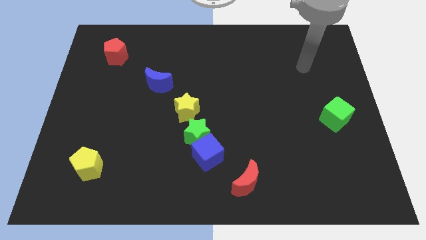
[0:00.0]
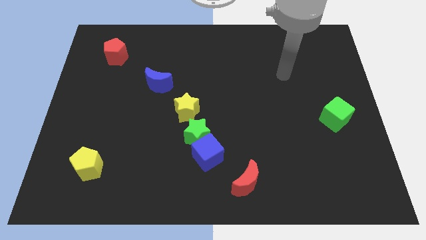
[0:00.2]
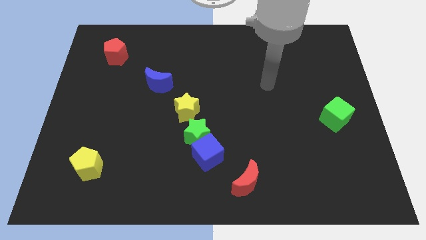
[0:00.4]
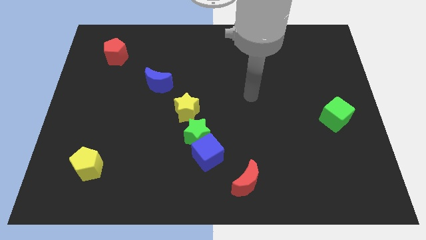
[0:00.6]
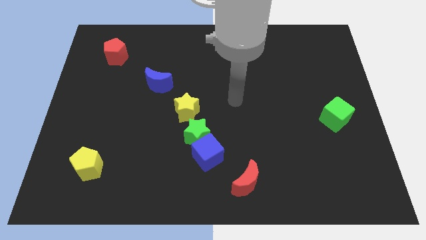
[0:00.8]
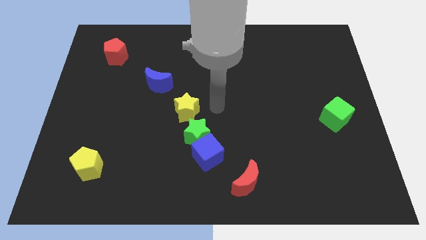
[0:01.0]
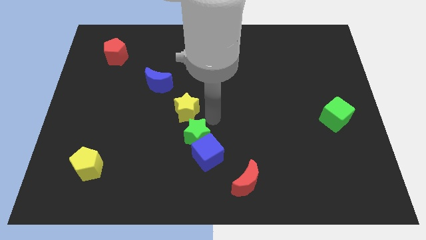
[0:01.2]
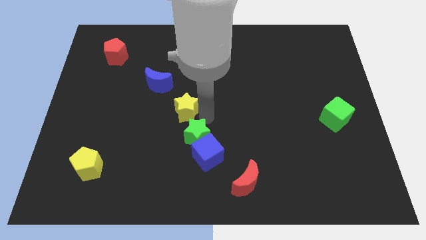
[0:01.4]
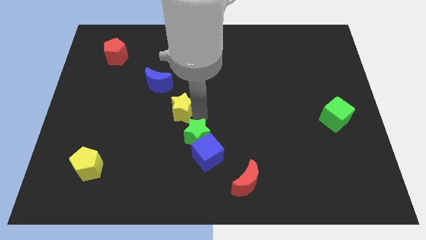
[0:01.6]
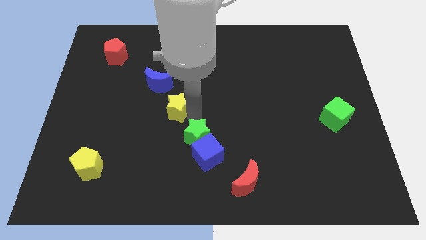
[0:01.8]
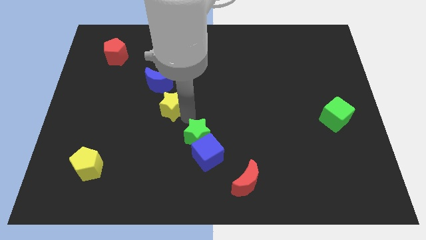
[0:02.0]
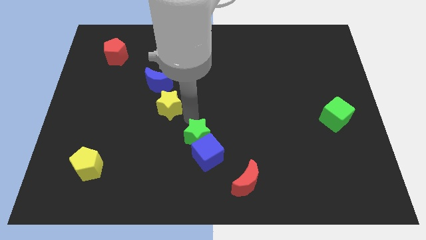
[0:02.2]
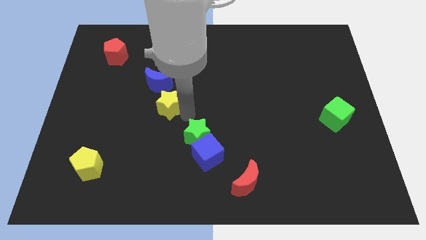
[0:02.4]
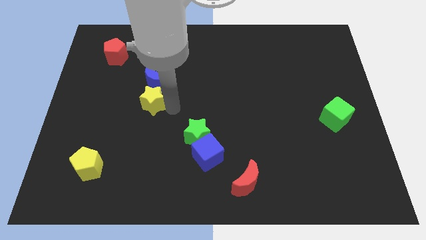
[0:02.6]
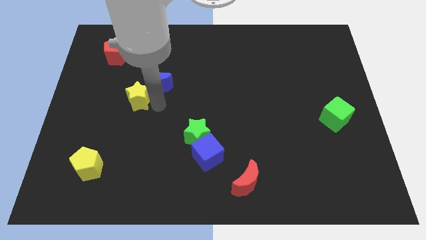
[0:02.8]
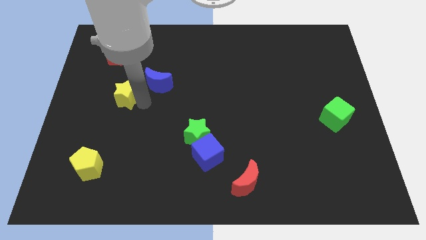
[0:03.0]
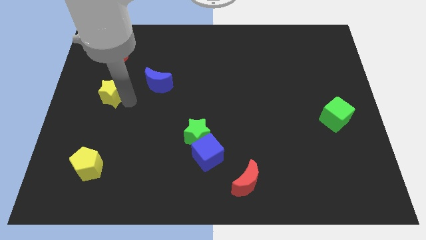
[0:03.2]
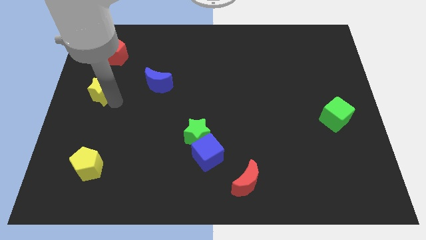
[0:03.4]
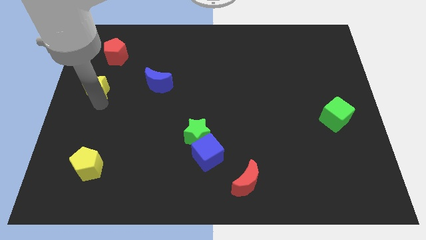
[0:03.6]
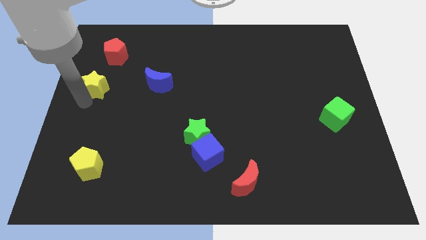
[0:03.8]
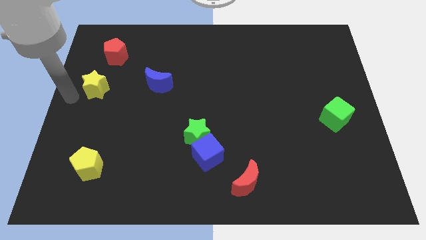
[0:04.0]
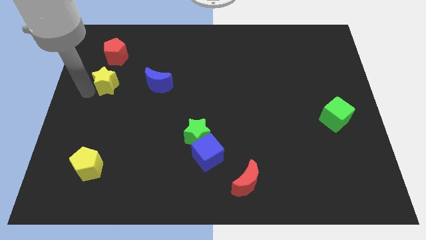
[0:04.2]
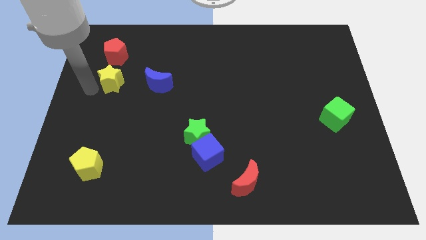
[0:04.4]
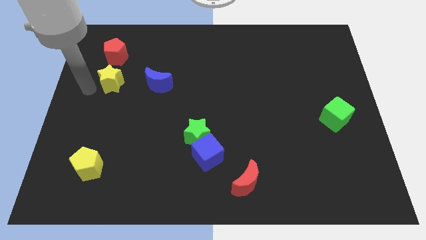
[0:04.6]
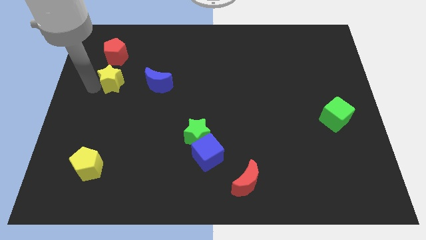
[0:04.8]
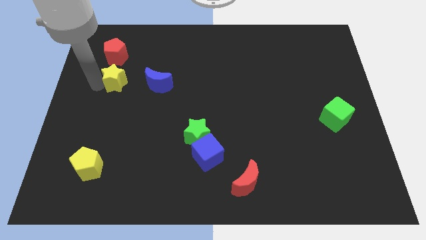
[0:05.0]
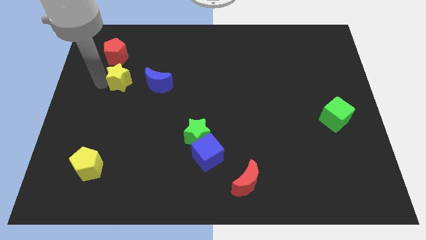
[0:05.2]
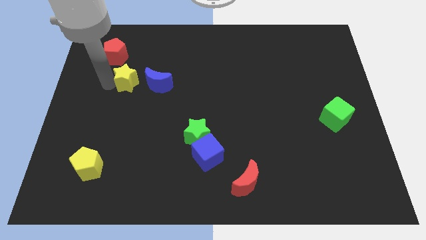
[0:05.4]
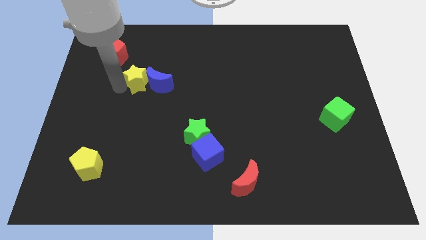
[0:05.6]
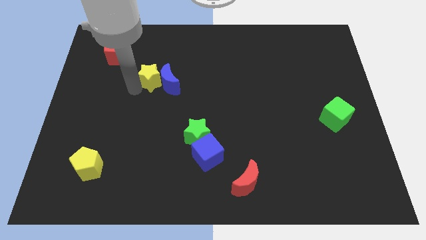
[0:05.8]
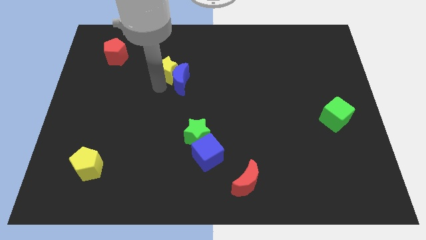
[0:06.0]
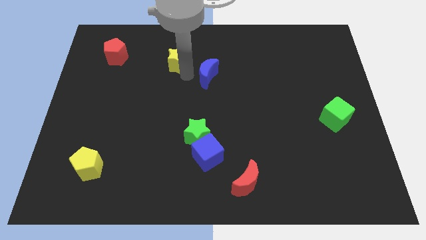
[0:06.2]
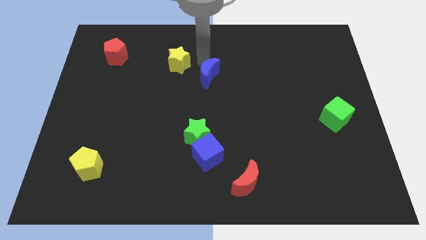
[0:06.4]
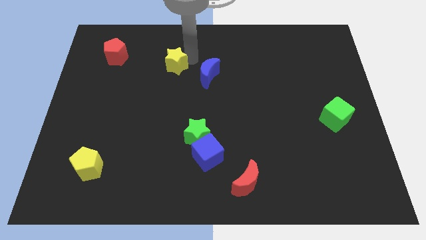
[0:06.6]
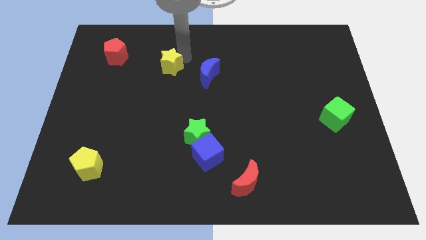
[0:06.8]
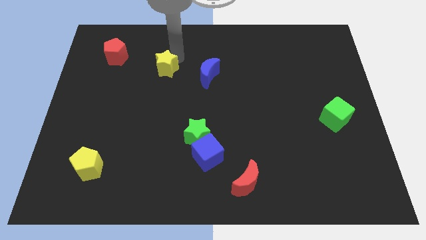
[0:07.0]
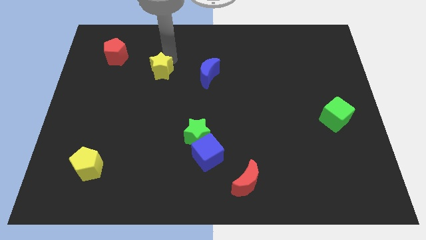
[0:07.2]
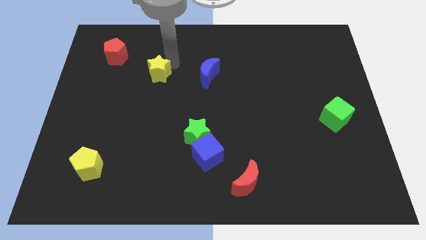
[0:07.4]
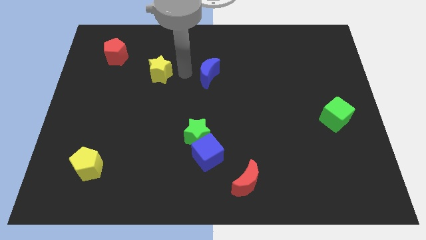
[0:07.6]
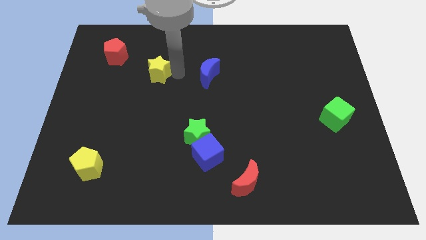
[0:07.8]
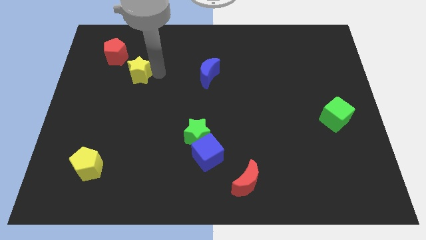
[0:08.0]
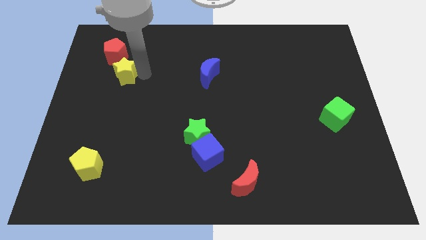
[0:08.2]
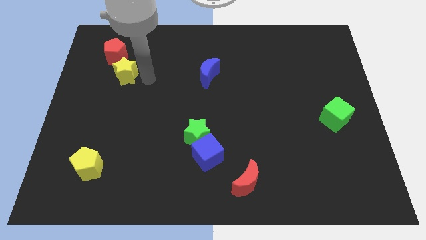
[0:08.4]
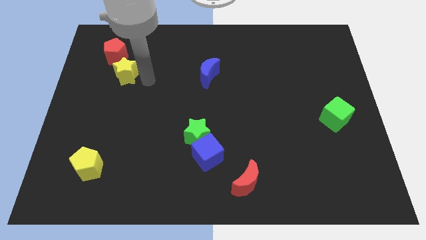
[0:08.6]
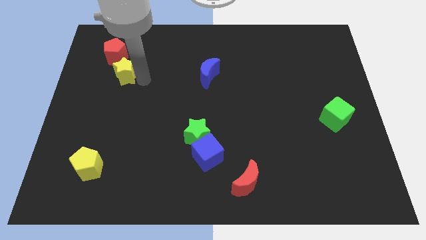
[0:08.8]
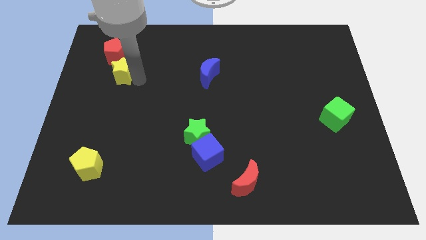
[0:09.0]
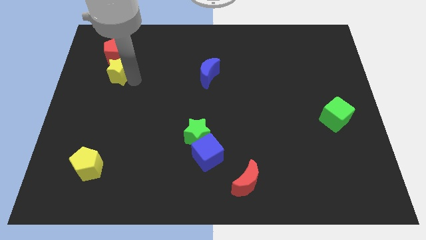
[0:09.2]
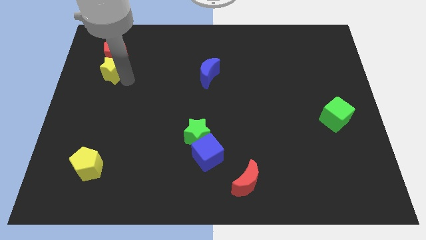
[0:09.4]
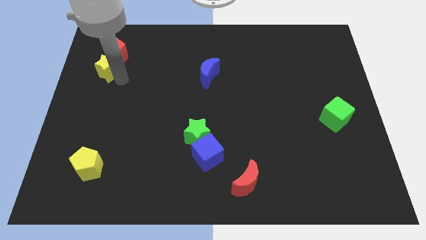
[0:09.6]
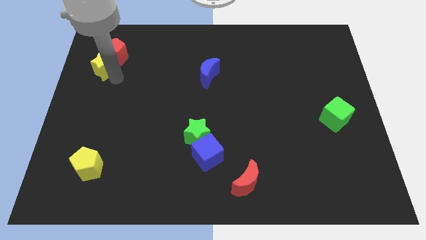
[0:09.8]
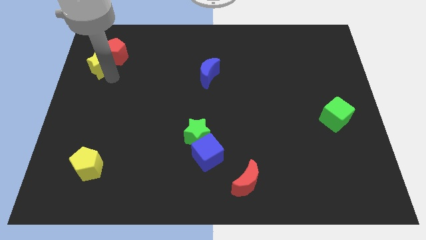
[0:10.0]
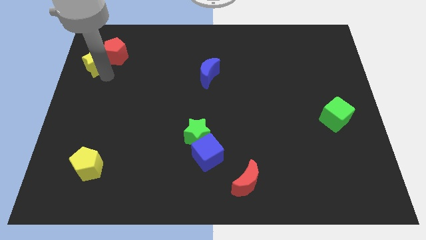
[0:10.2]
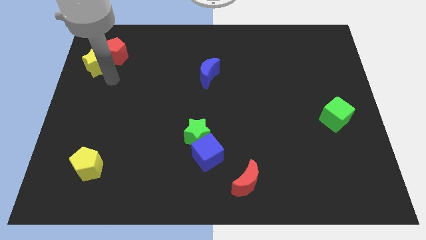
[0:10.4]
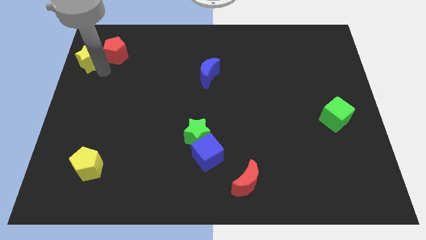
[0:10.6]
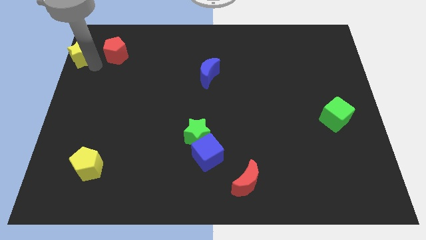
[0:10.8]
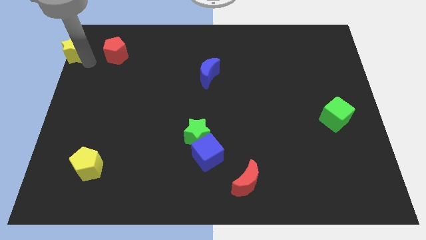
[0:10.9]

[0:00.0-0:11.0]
put the yellow star to the top left corner
